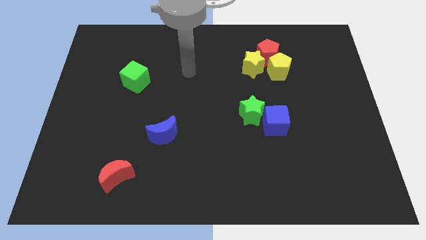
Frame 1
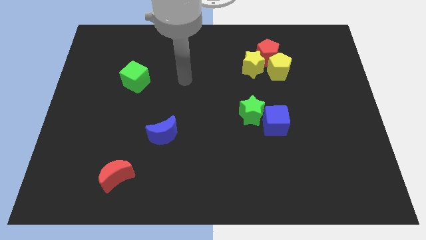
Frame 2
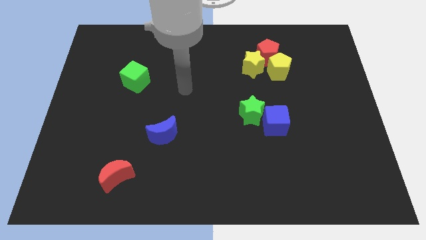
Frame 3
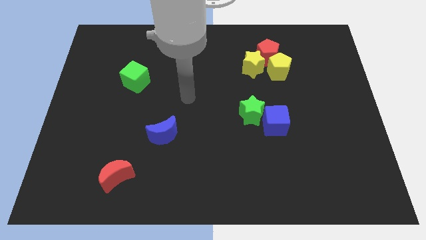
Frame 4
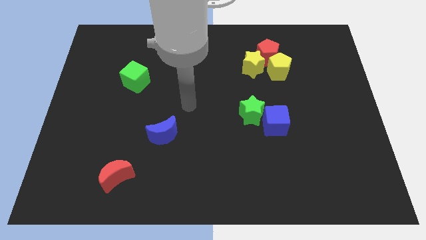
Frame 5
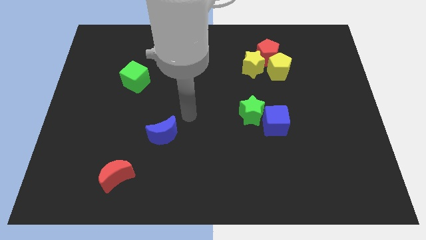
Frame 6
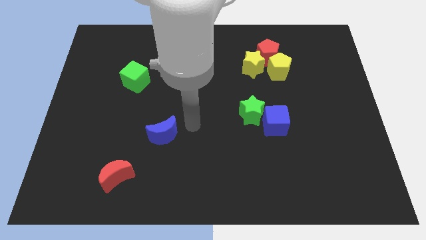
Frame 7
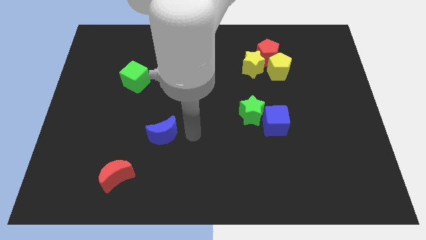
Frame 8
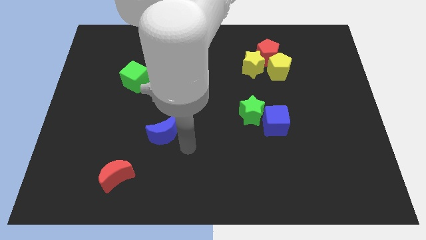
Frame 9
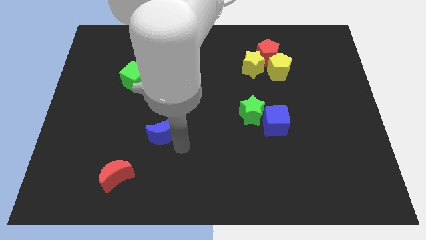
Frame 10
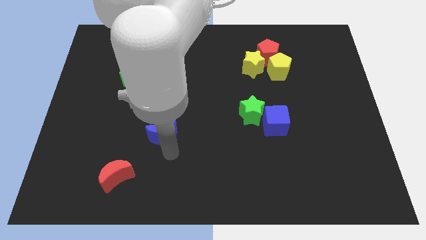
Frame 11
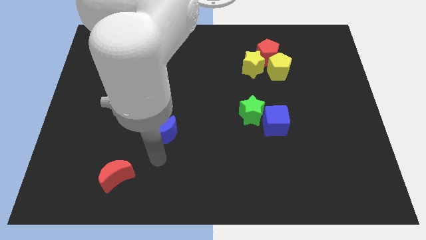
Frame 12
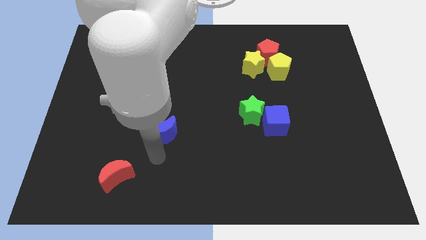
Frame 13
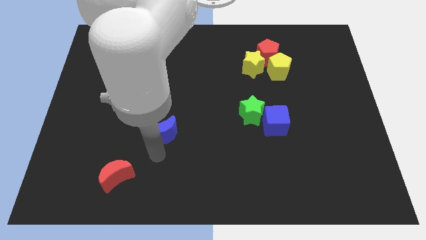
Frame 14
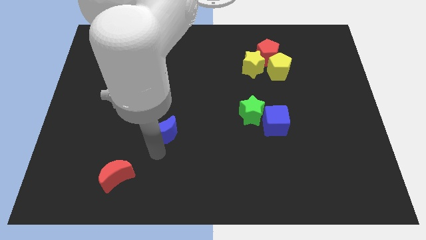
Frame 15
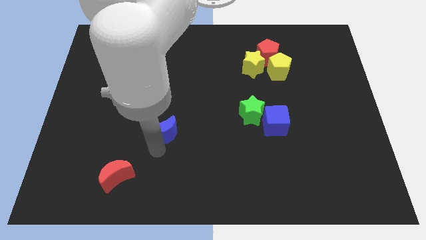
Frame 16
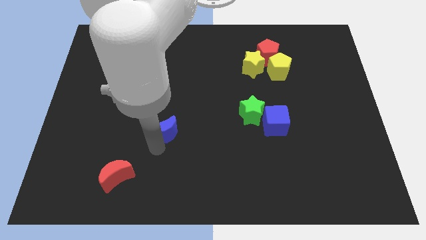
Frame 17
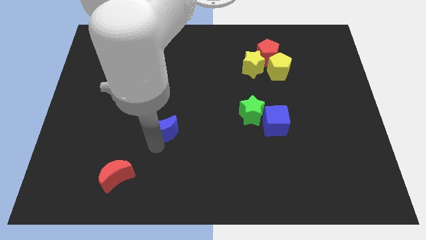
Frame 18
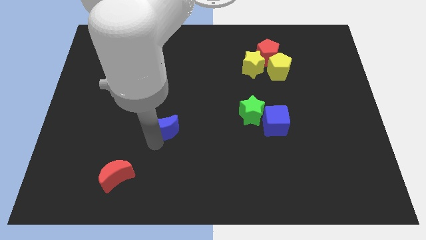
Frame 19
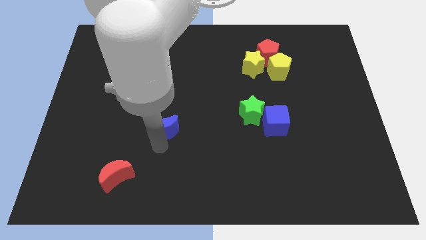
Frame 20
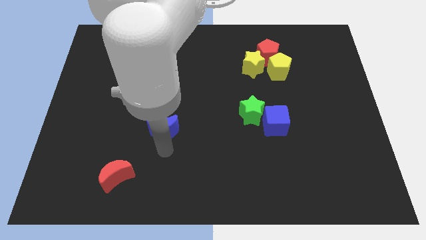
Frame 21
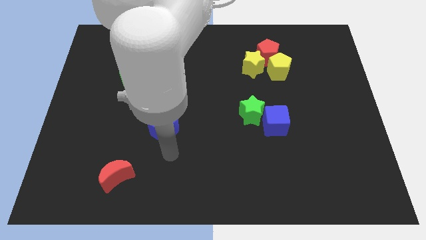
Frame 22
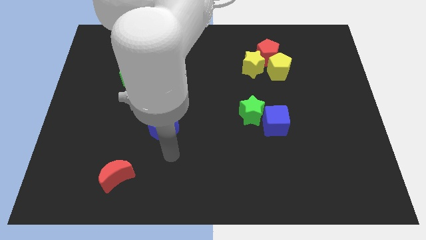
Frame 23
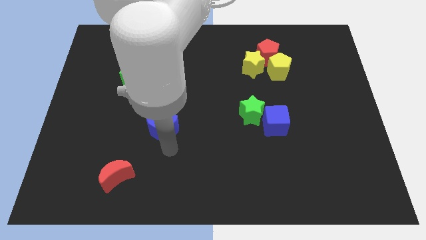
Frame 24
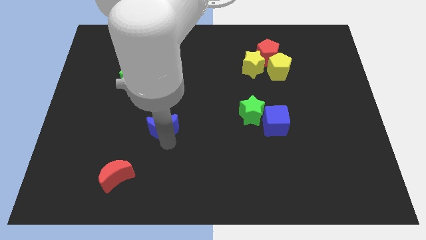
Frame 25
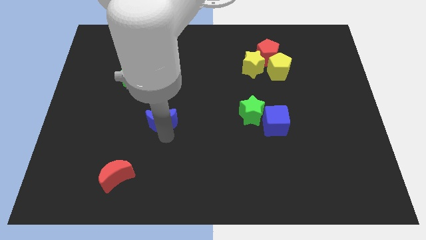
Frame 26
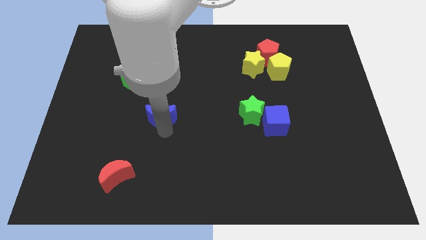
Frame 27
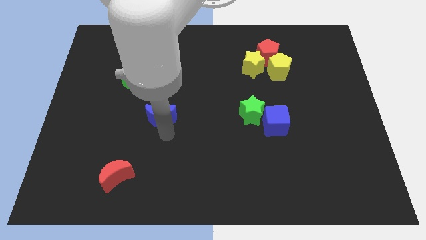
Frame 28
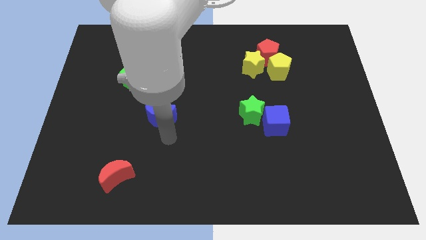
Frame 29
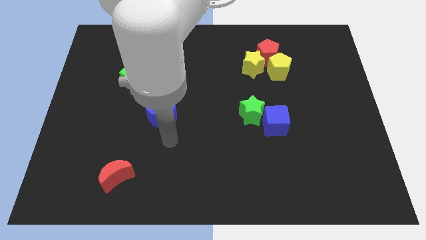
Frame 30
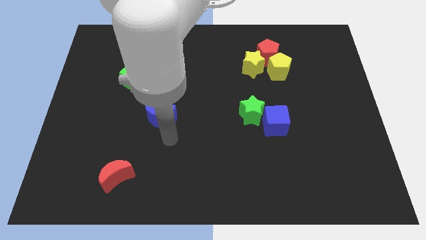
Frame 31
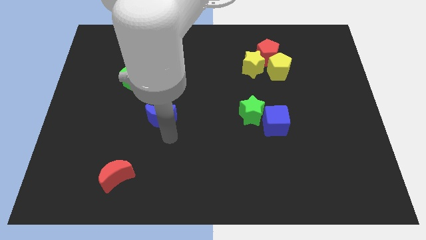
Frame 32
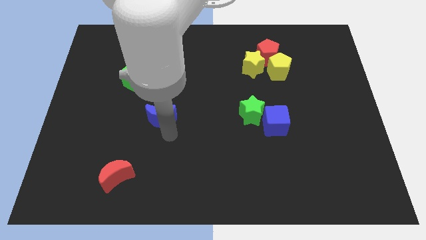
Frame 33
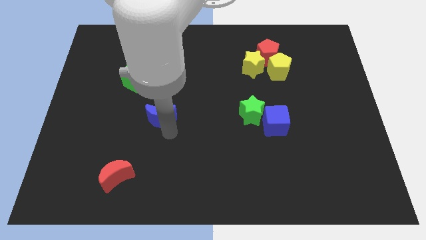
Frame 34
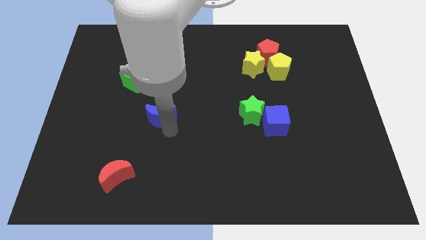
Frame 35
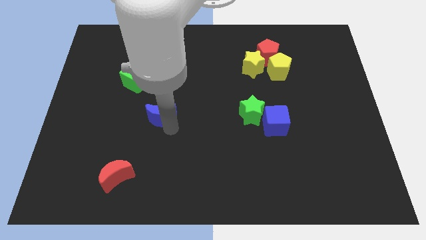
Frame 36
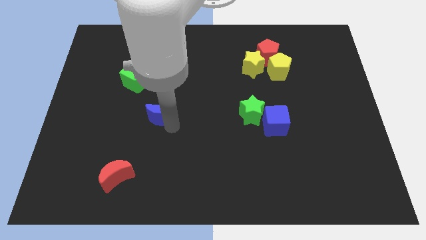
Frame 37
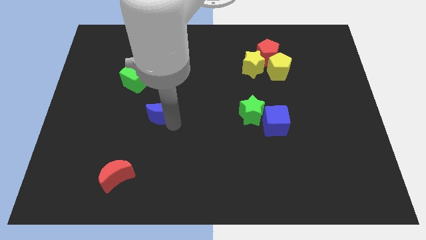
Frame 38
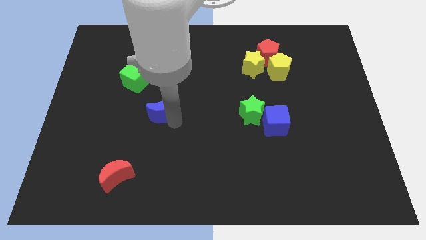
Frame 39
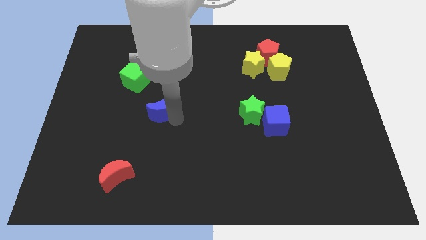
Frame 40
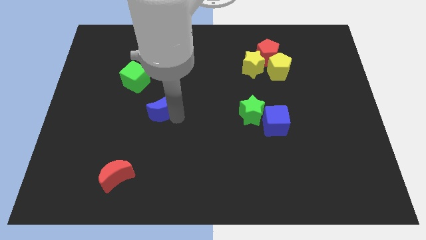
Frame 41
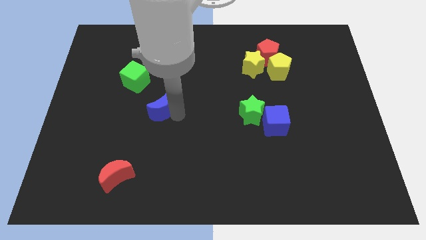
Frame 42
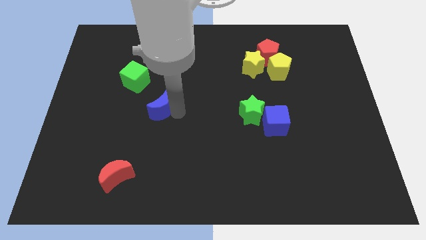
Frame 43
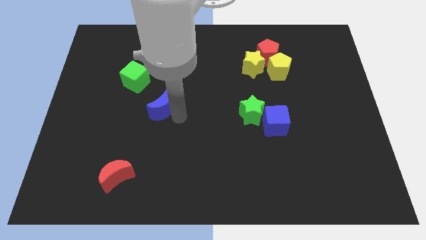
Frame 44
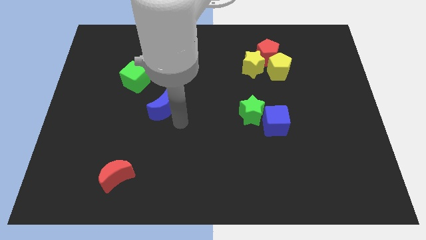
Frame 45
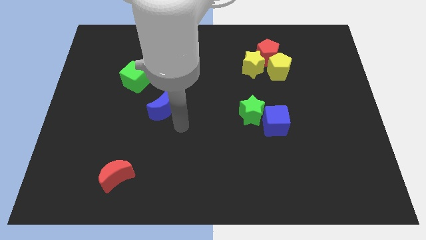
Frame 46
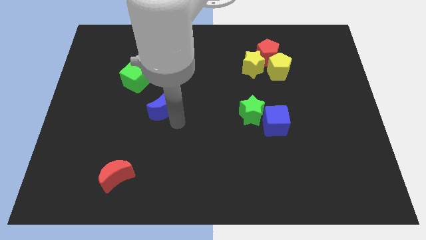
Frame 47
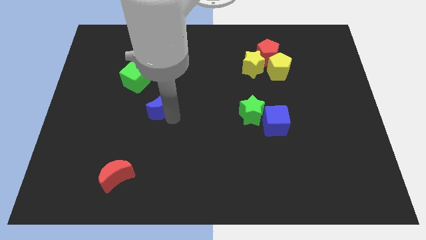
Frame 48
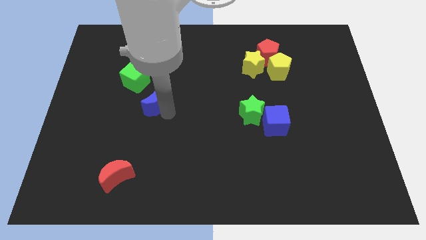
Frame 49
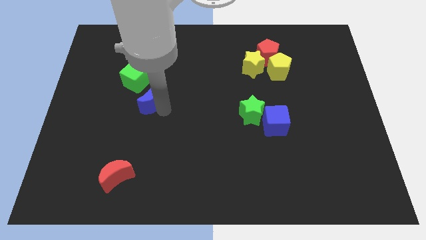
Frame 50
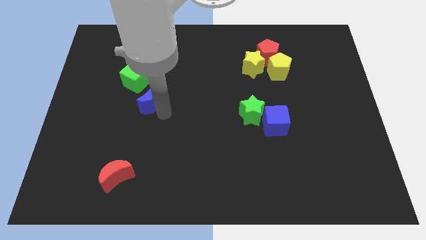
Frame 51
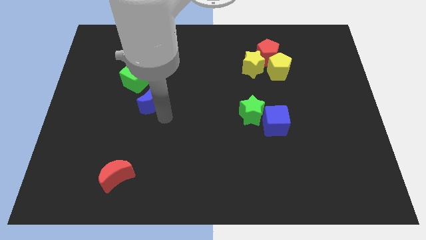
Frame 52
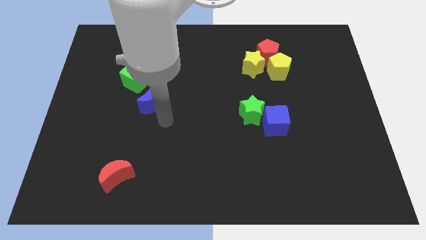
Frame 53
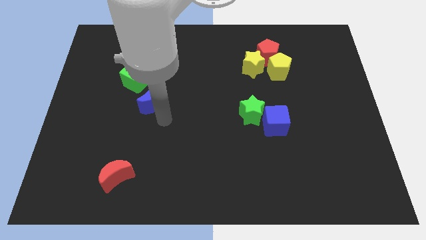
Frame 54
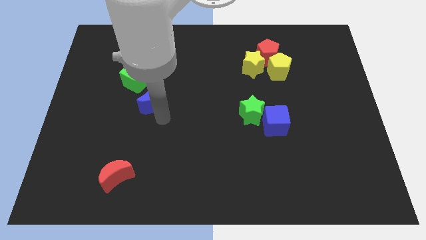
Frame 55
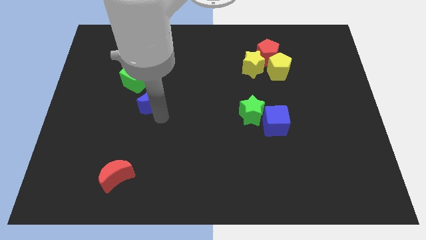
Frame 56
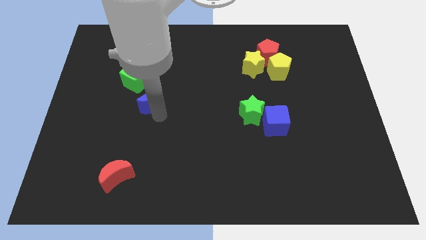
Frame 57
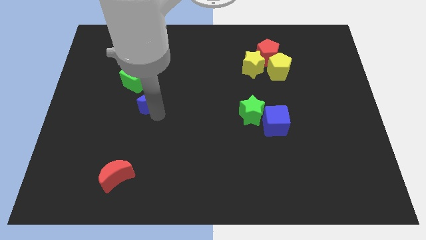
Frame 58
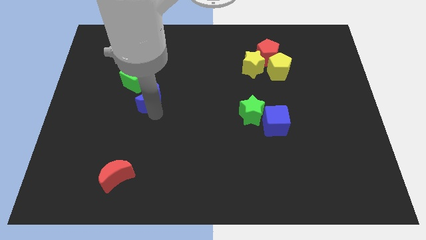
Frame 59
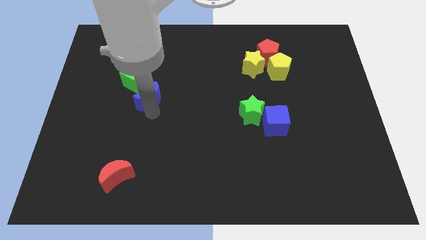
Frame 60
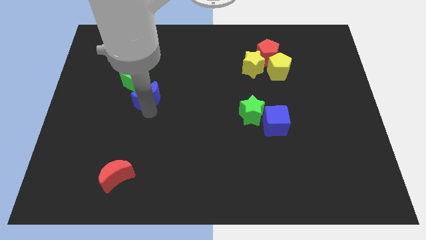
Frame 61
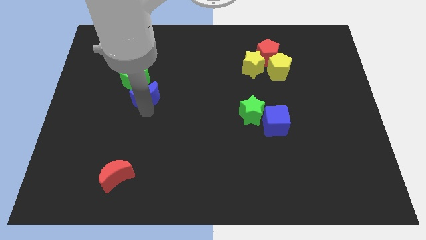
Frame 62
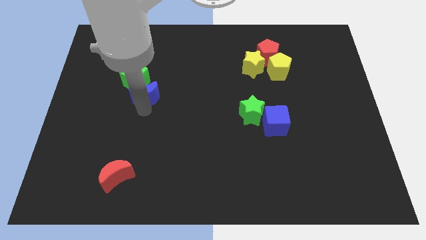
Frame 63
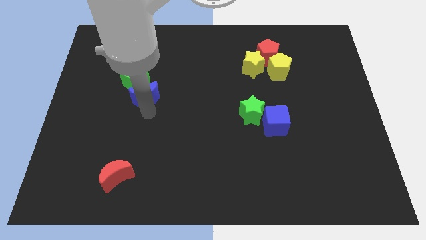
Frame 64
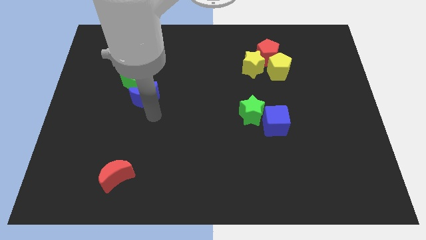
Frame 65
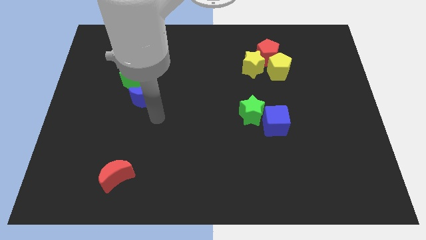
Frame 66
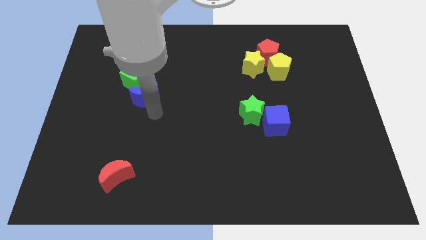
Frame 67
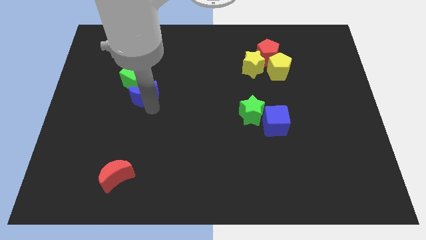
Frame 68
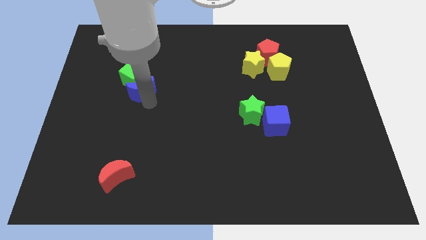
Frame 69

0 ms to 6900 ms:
slide the blue moon close to the green cube

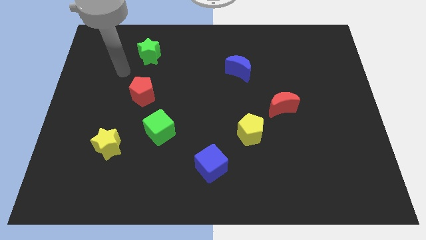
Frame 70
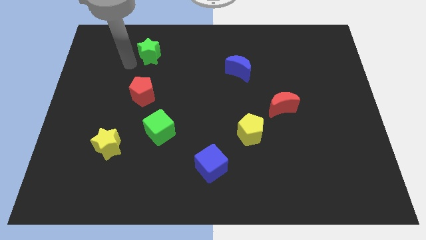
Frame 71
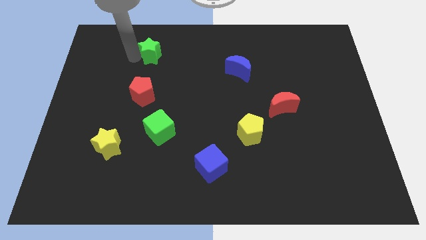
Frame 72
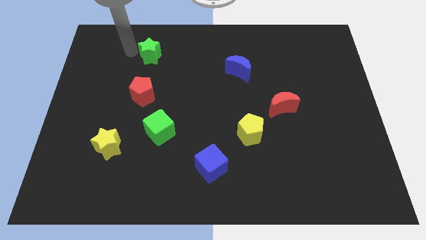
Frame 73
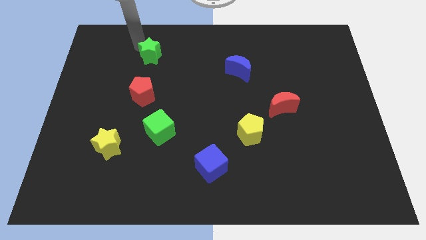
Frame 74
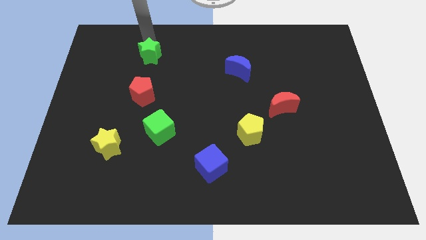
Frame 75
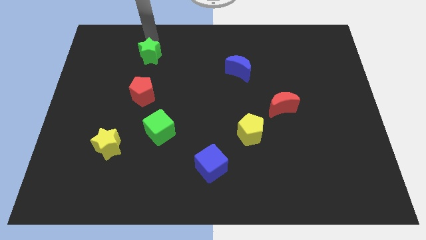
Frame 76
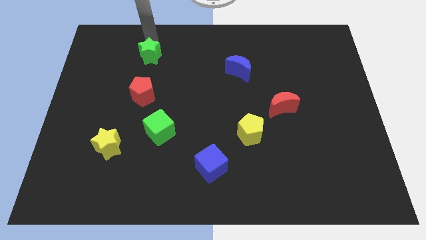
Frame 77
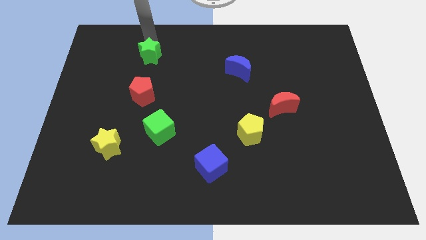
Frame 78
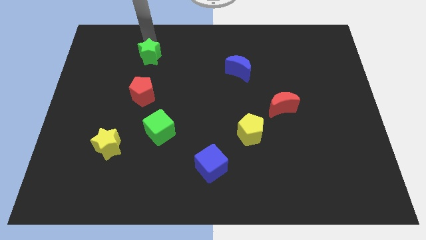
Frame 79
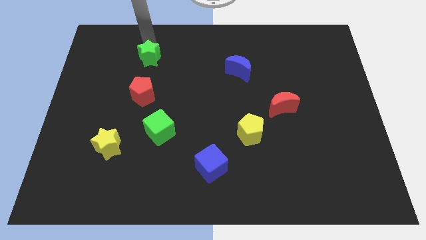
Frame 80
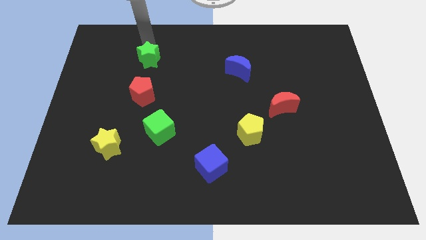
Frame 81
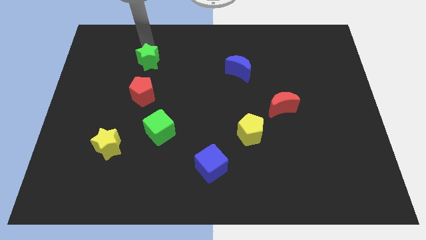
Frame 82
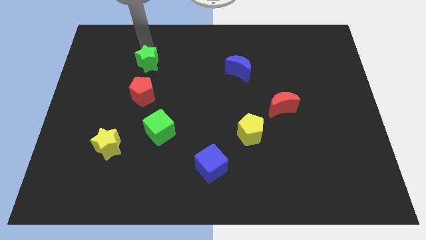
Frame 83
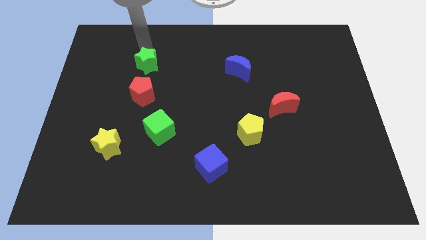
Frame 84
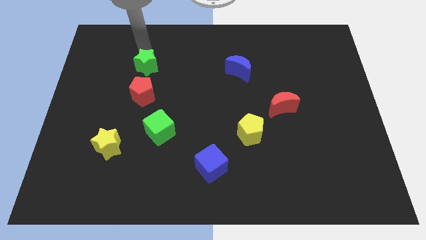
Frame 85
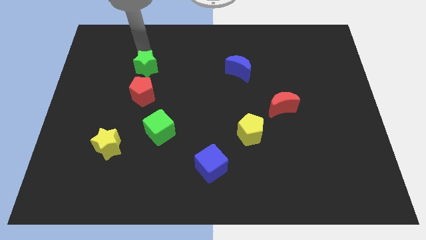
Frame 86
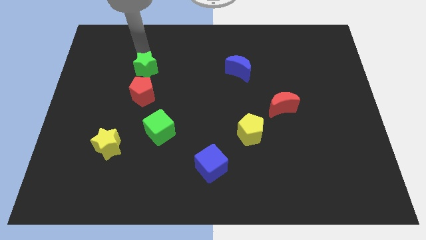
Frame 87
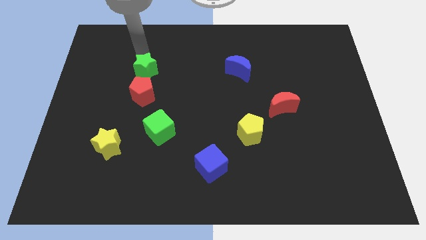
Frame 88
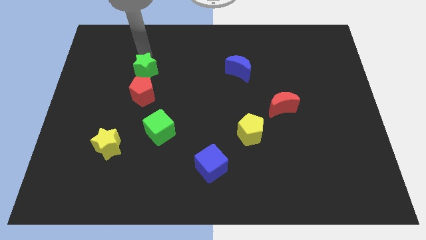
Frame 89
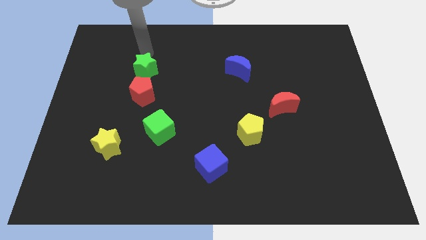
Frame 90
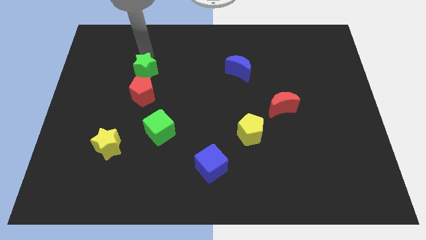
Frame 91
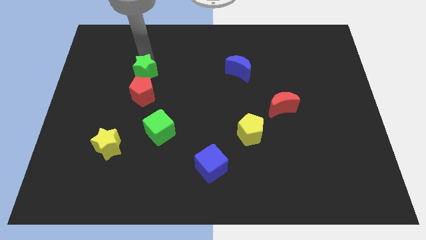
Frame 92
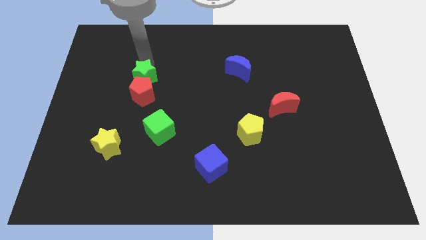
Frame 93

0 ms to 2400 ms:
put the green star close to the red pentagon
